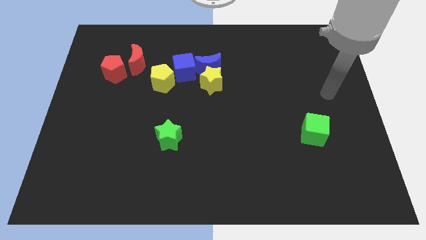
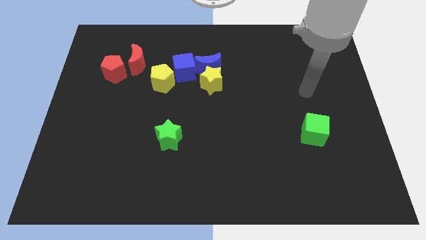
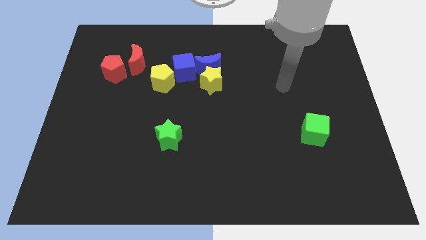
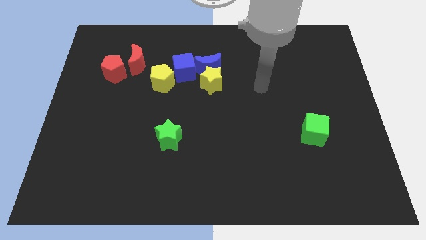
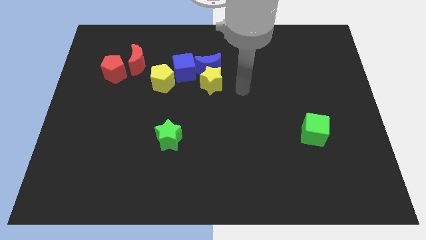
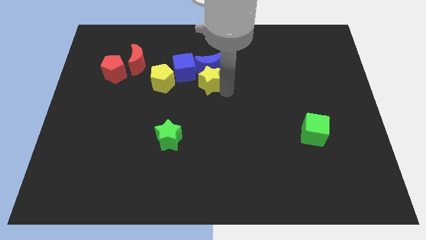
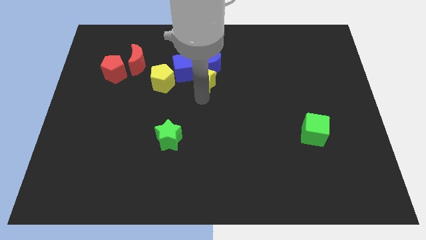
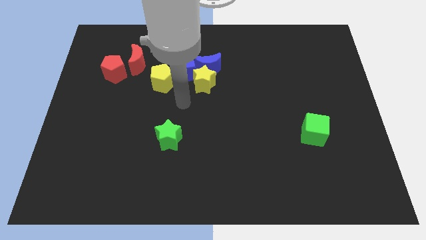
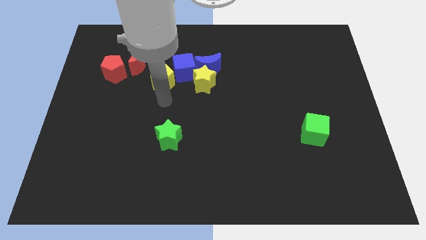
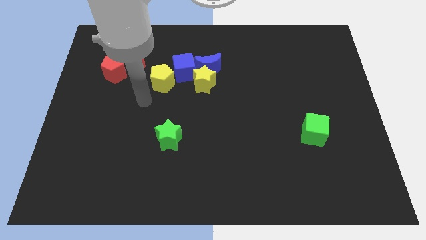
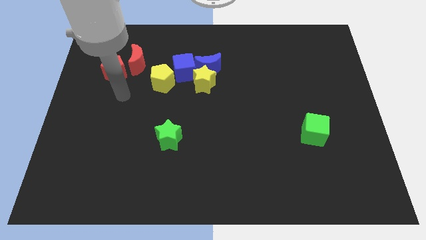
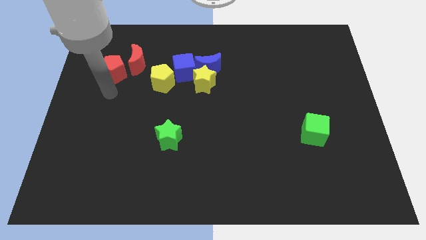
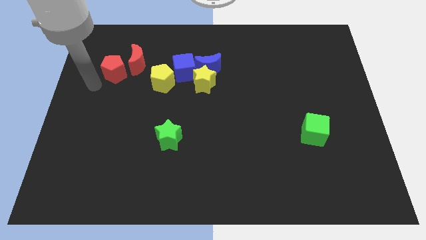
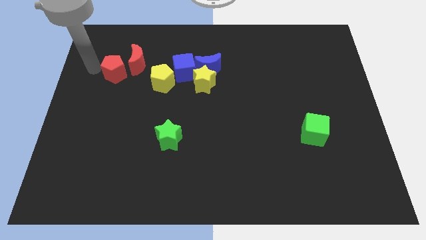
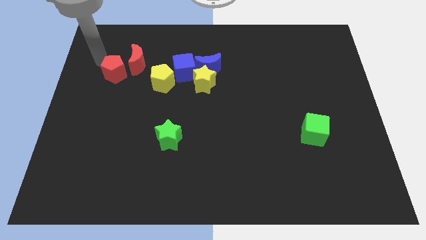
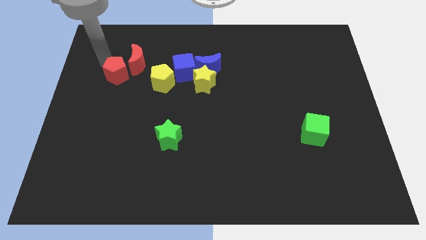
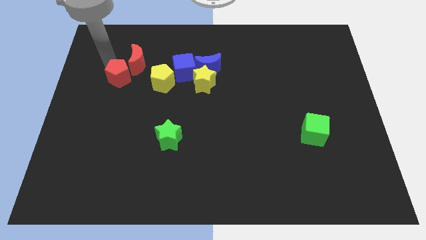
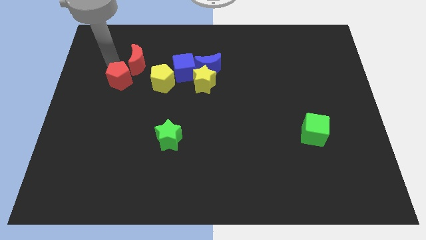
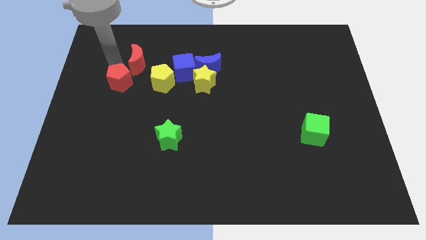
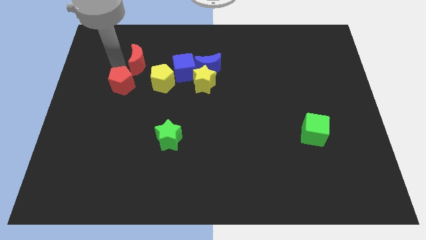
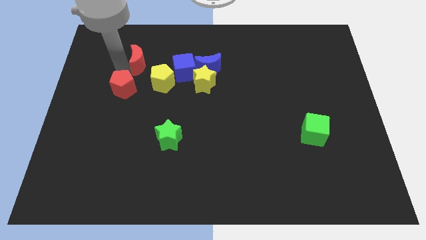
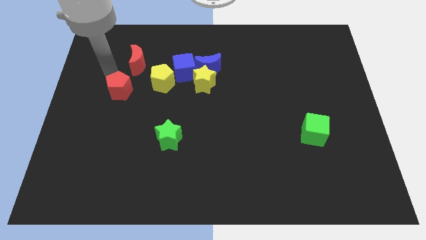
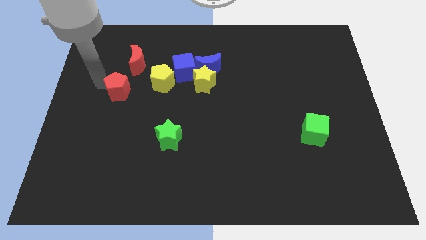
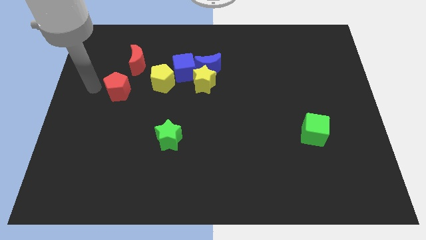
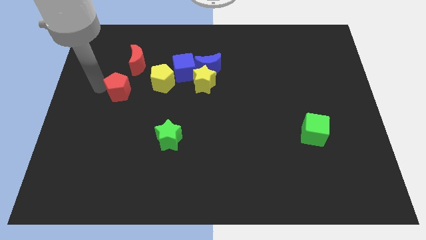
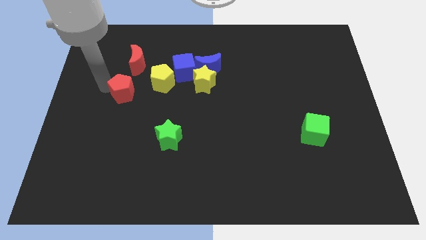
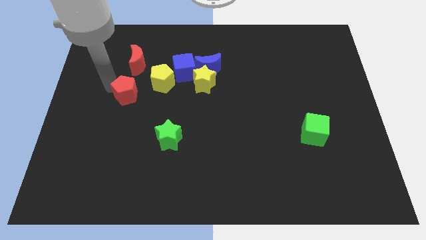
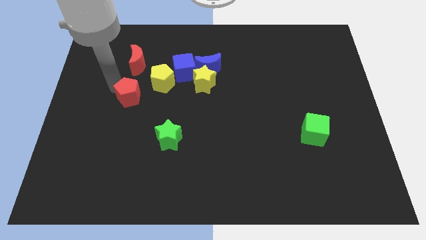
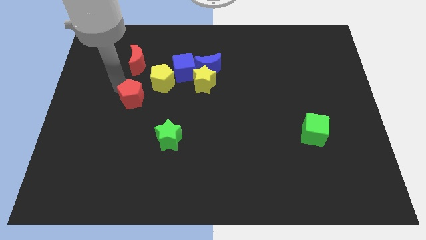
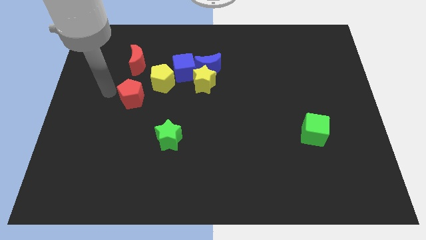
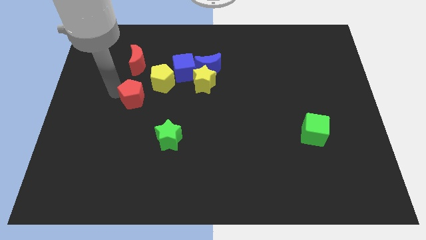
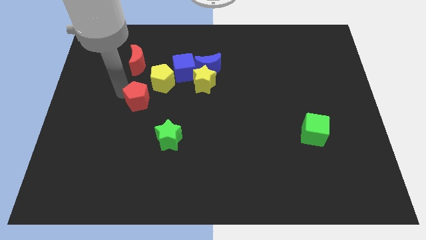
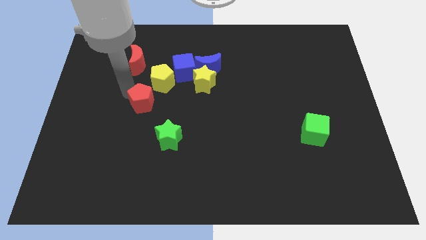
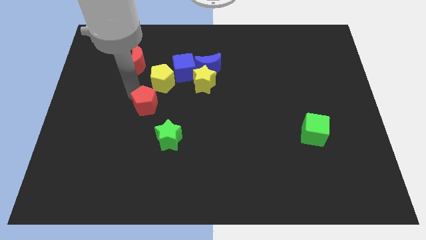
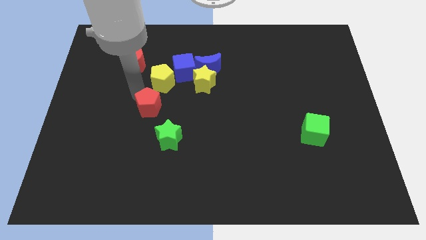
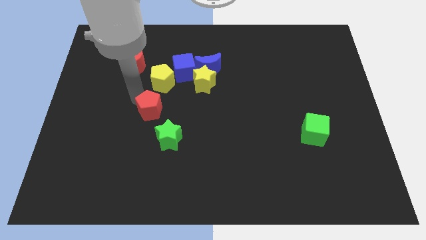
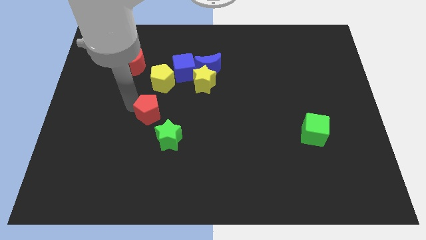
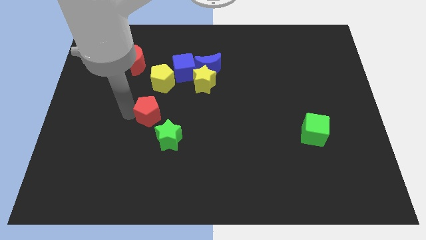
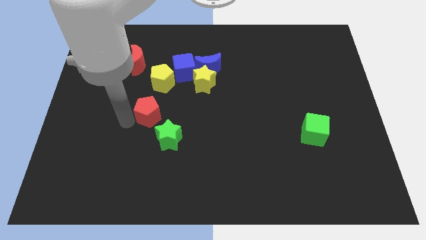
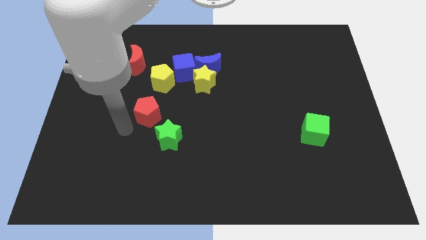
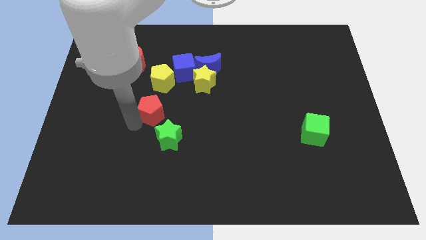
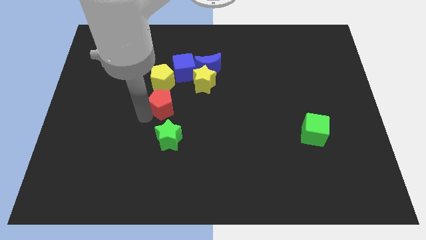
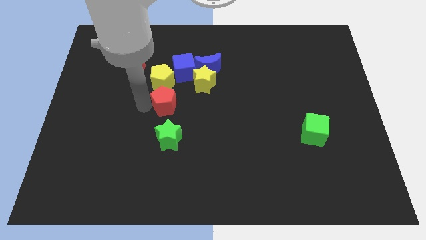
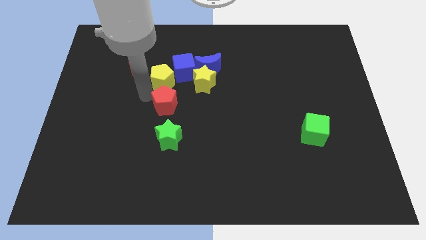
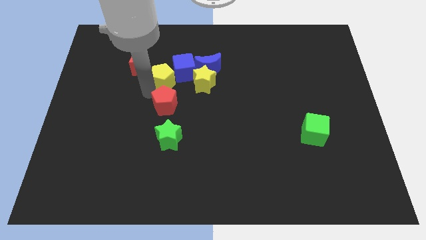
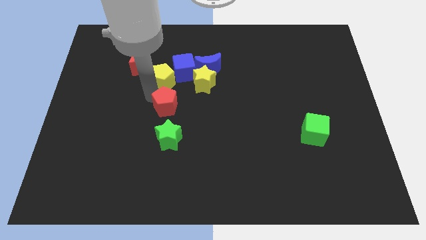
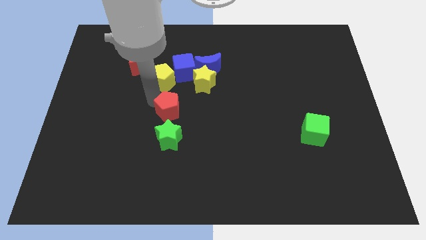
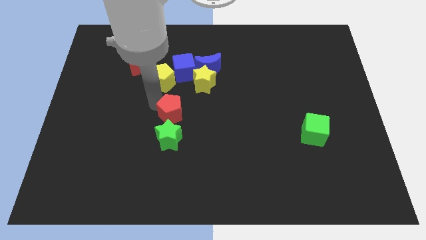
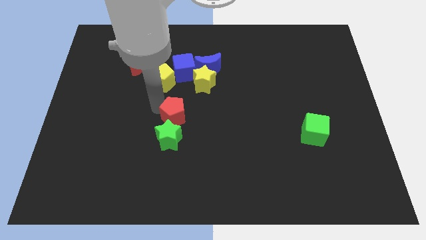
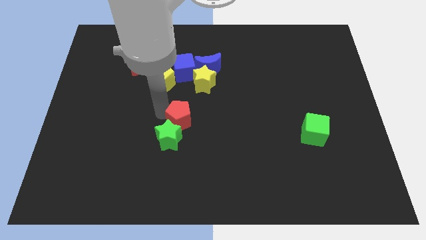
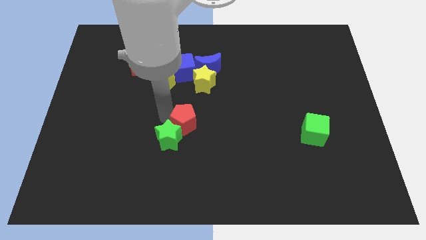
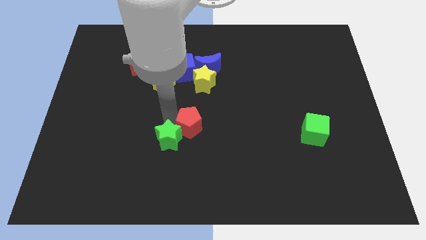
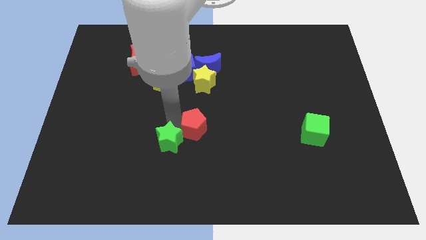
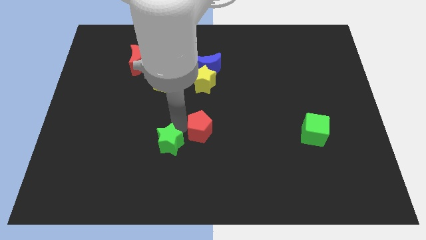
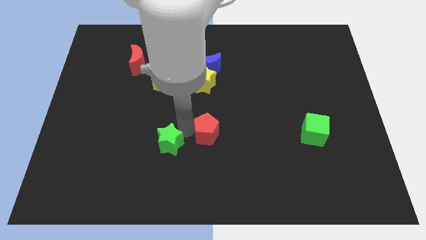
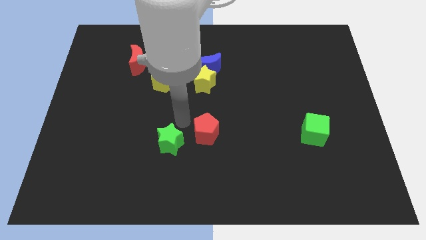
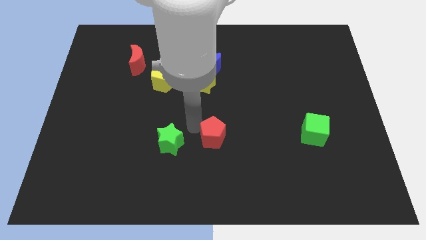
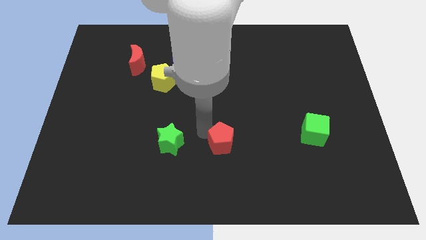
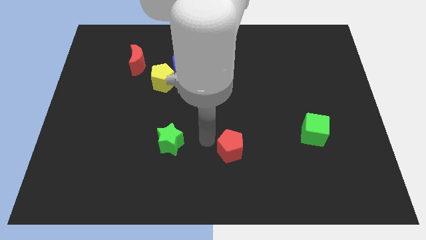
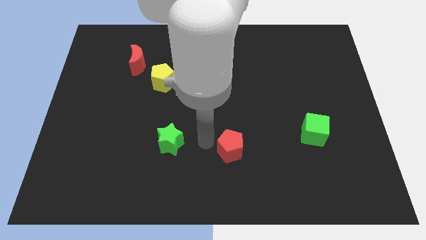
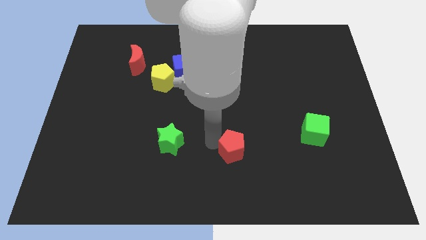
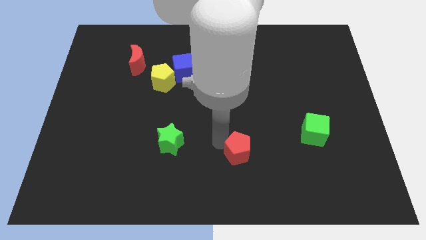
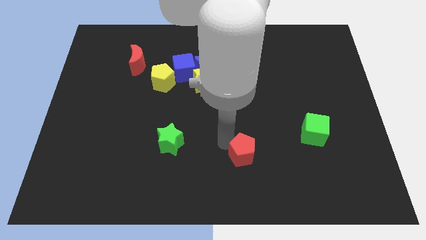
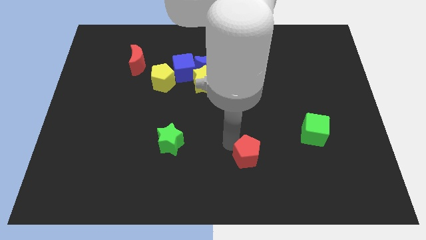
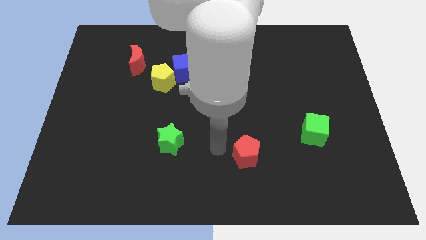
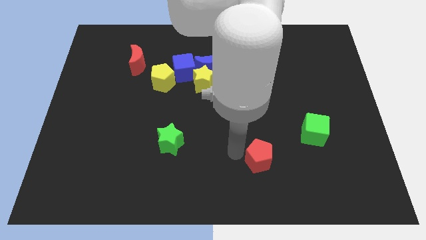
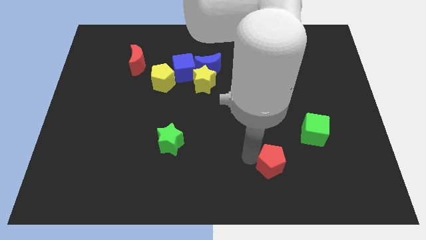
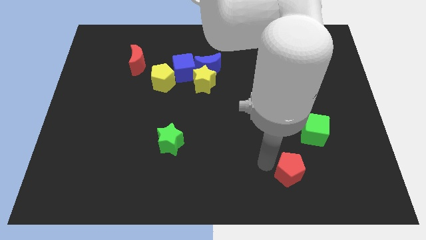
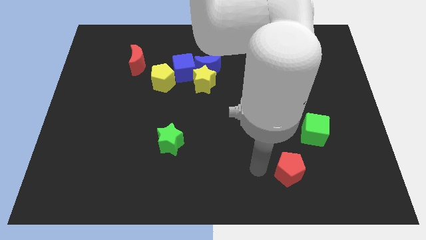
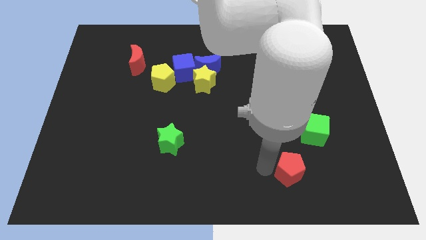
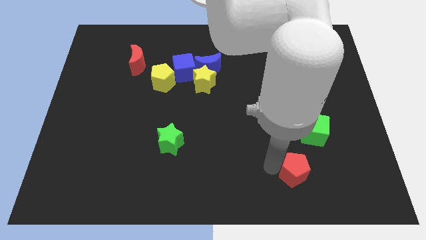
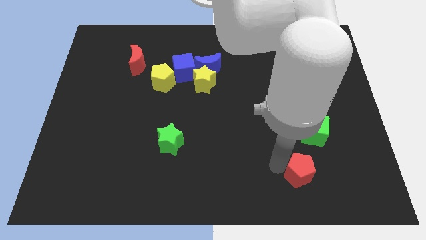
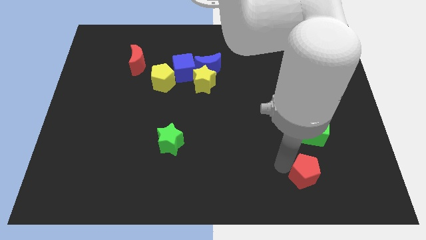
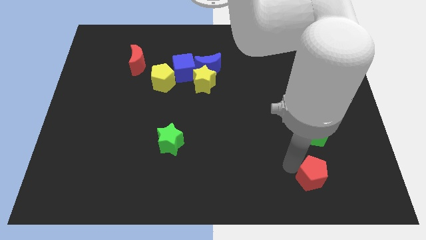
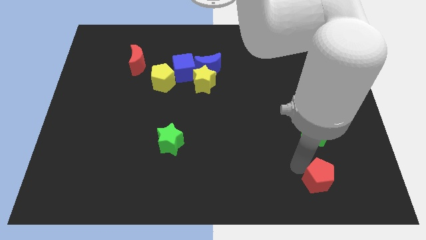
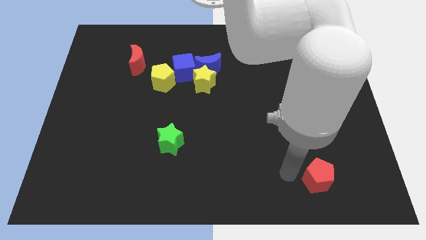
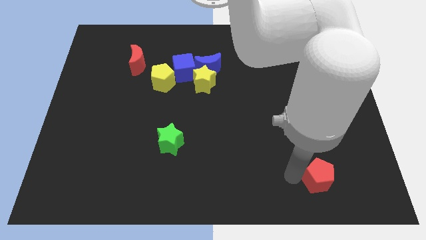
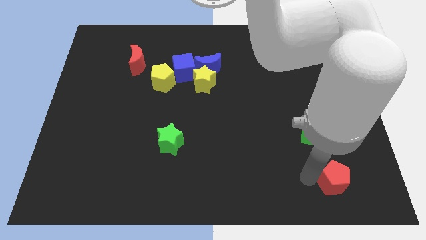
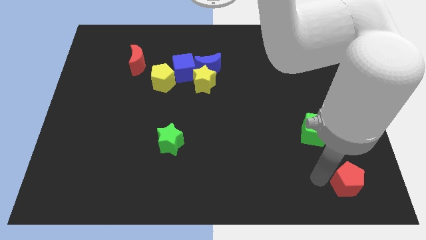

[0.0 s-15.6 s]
move the red pentagon to the bottom right
